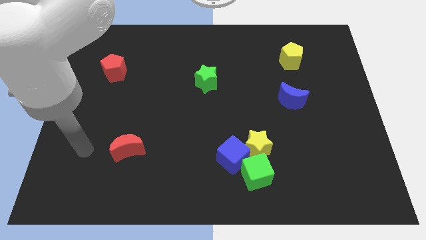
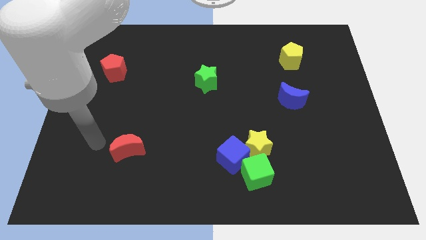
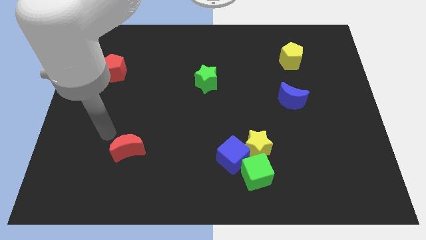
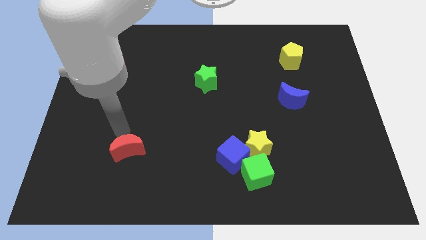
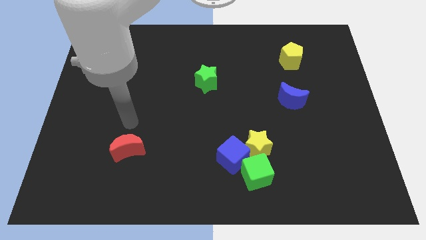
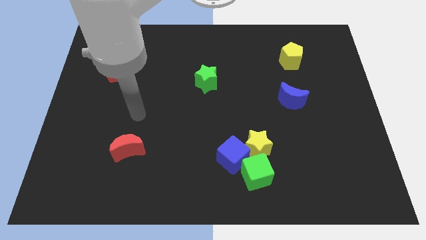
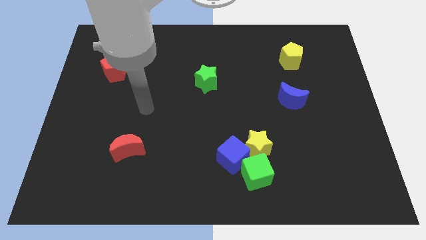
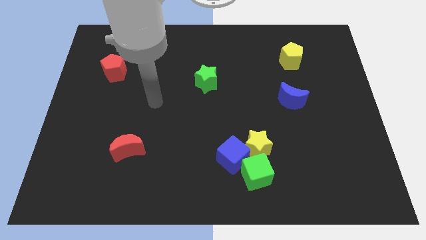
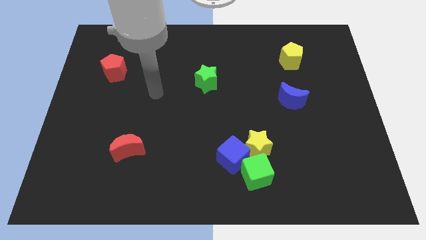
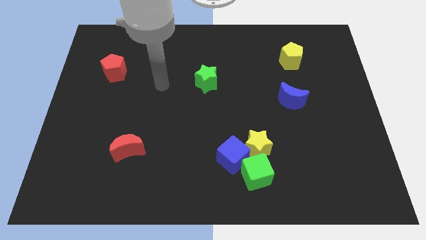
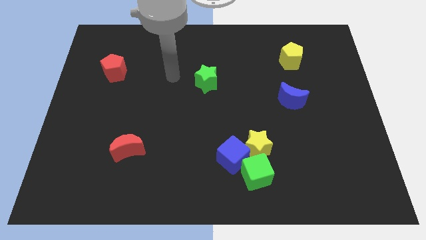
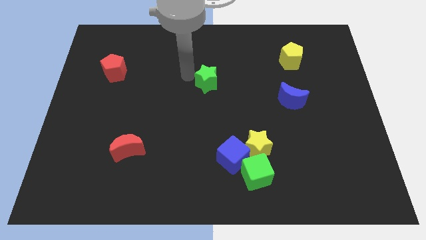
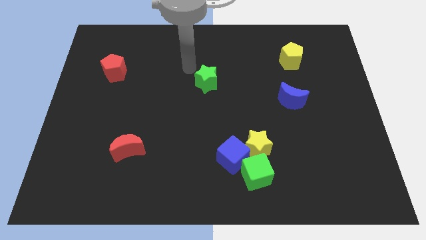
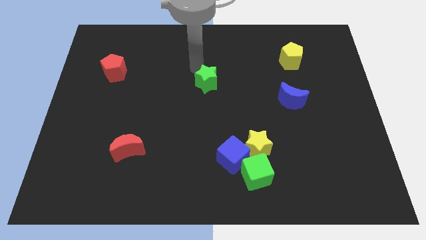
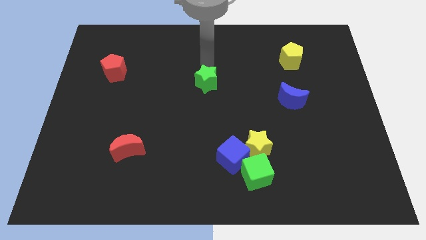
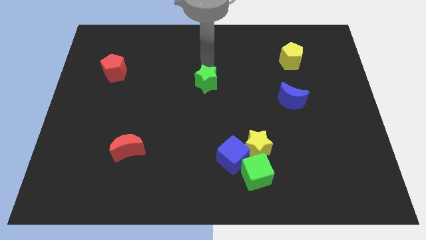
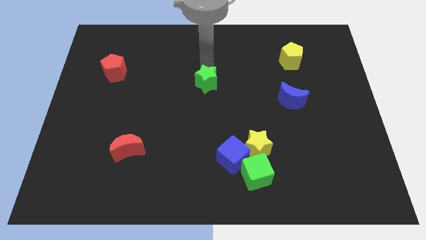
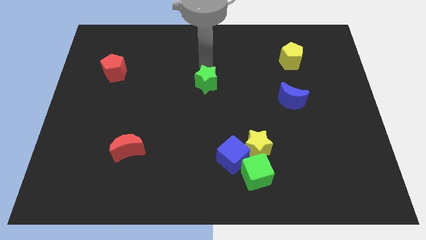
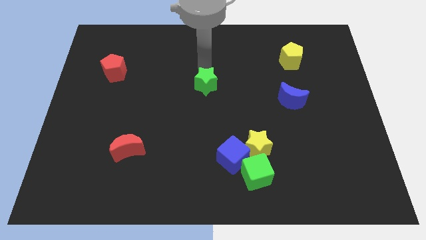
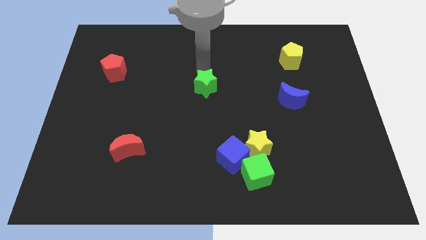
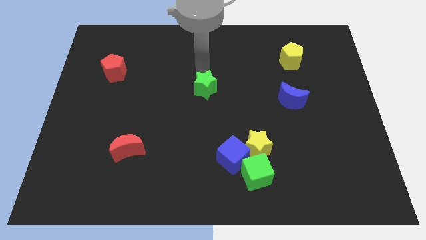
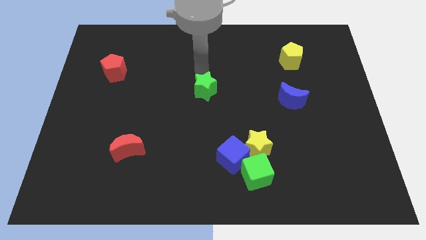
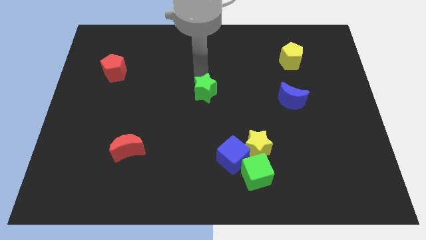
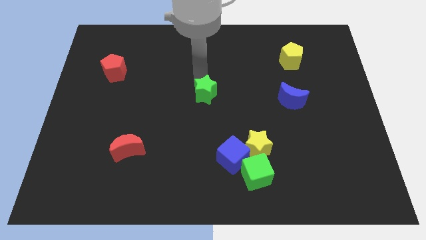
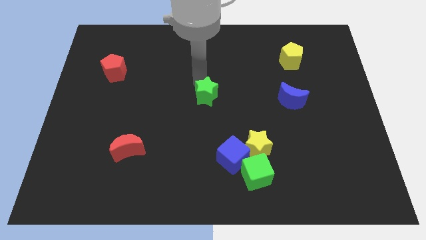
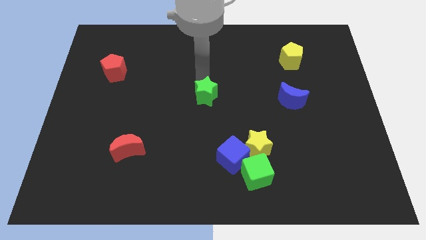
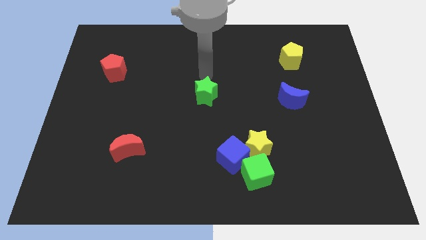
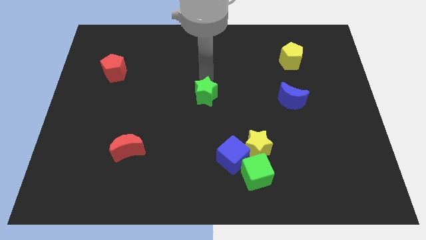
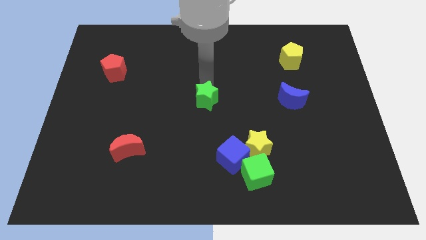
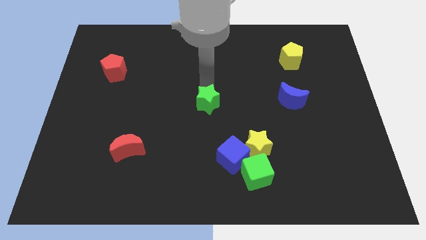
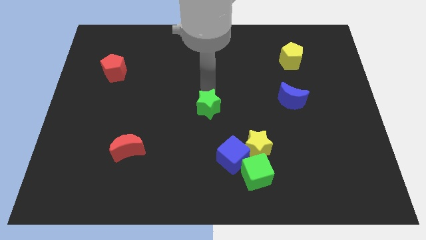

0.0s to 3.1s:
push the green star downwards slightly

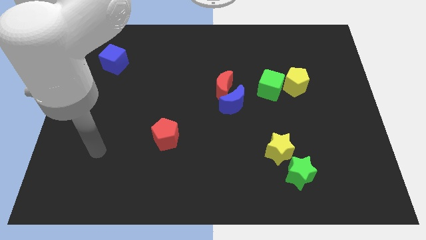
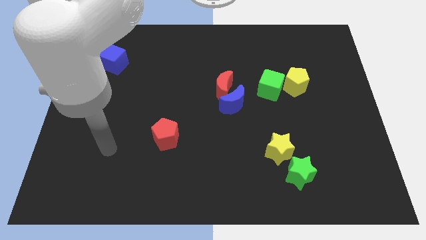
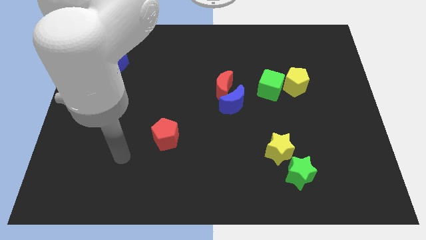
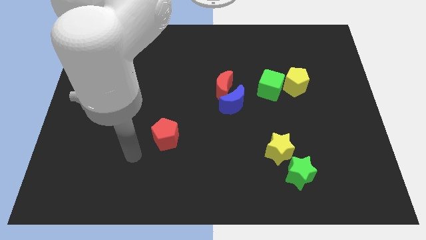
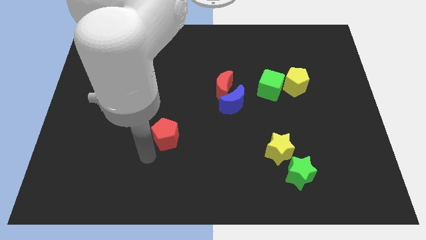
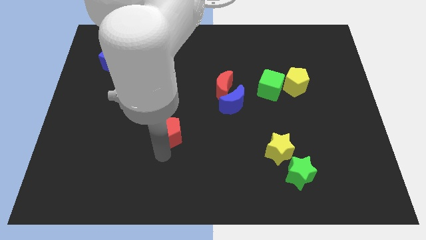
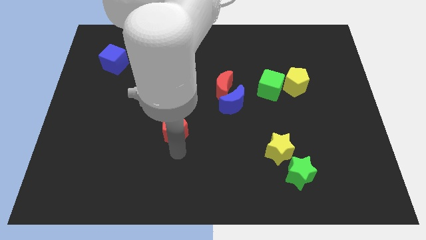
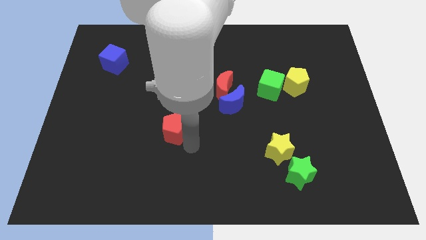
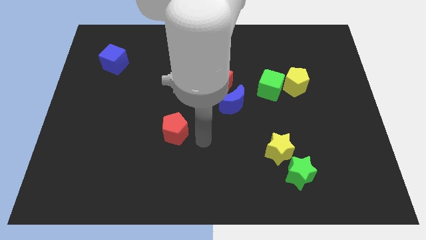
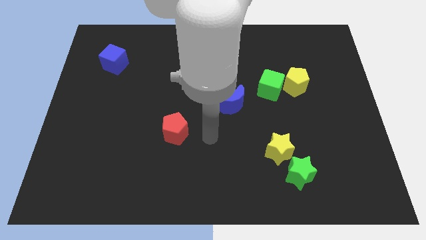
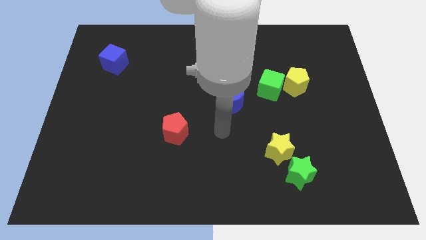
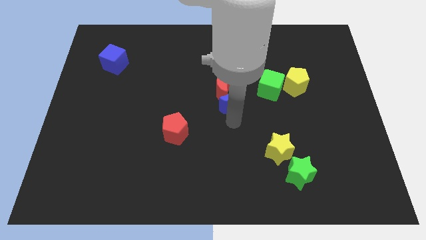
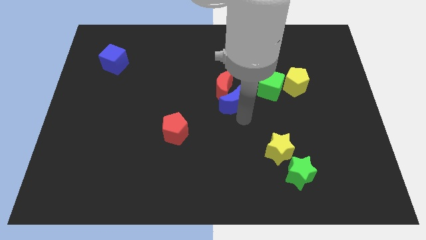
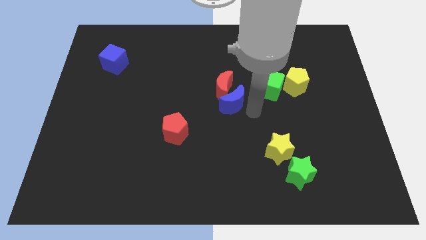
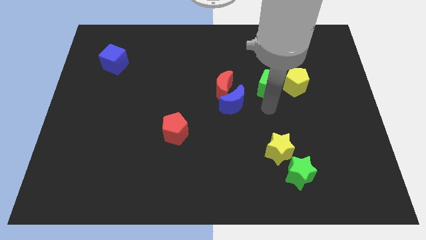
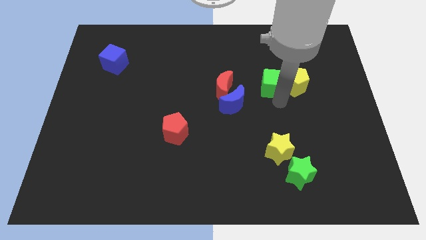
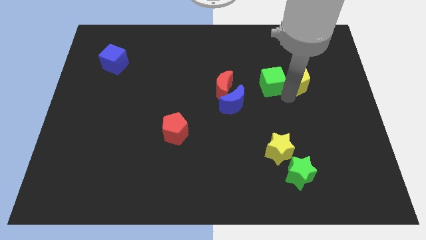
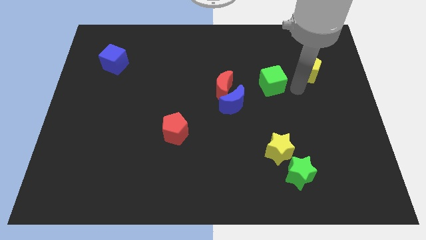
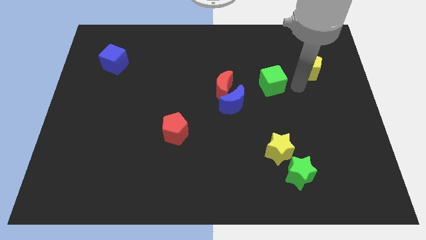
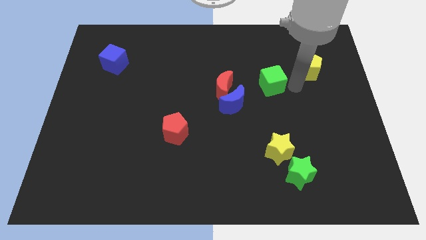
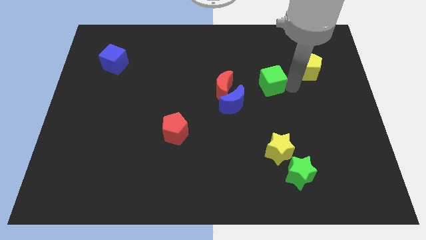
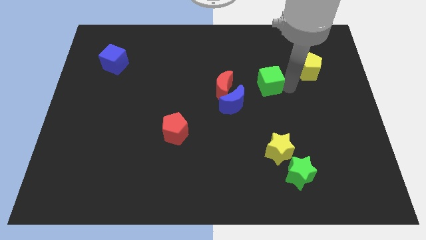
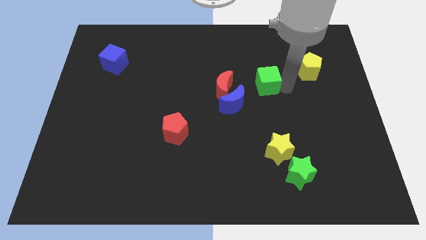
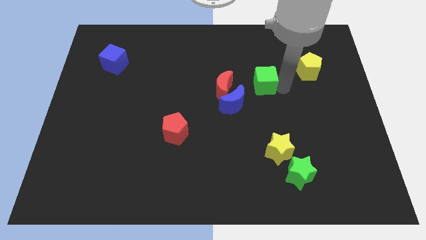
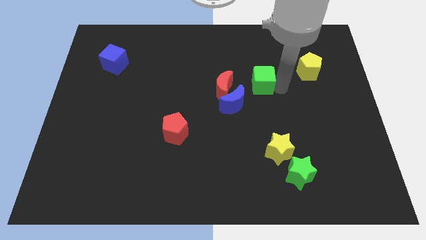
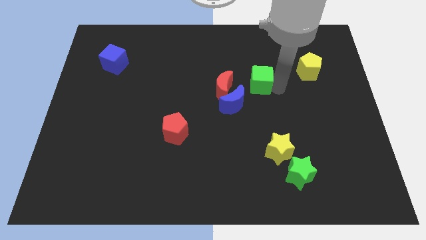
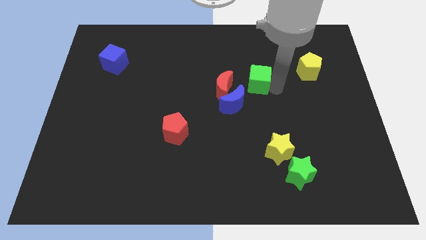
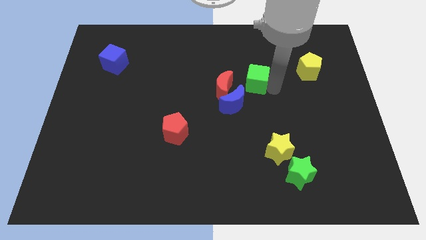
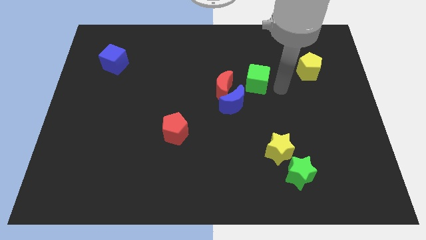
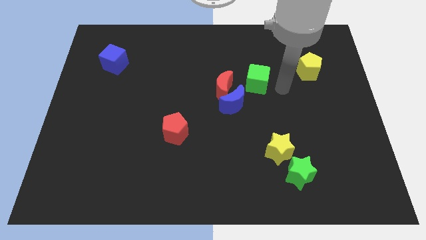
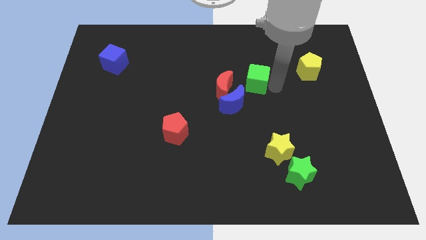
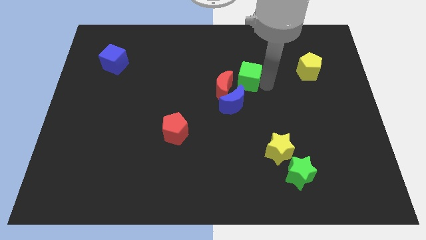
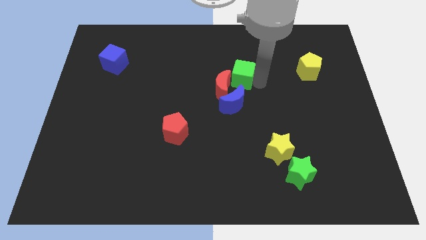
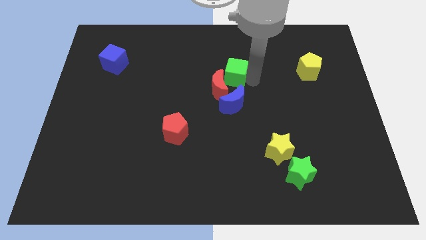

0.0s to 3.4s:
slightly push the green cube left

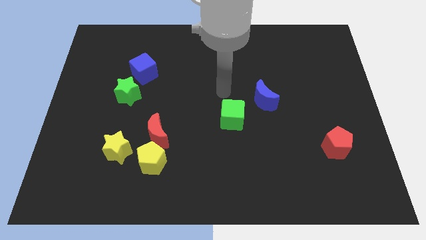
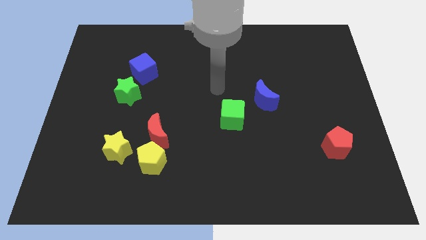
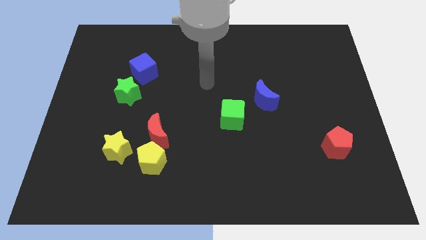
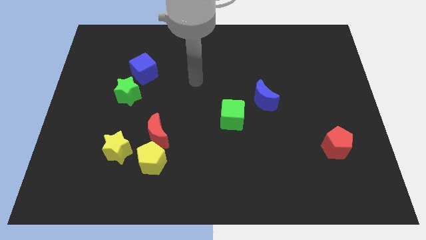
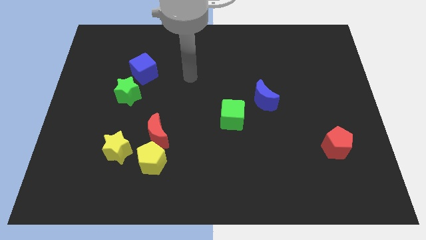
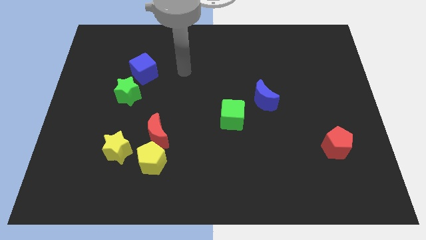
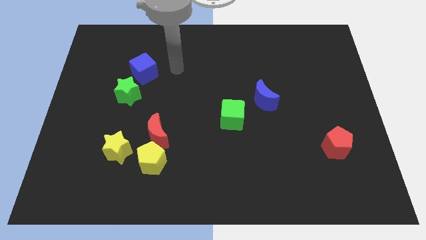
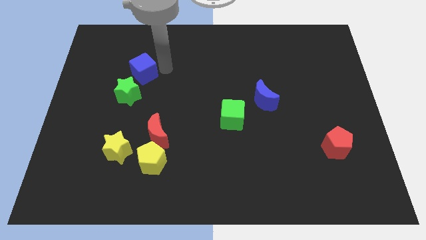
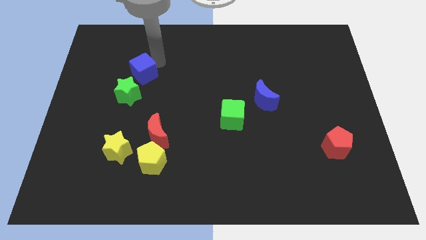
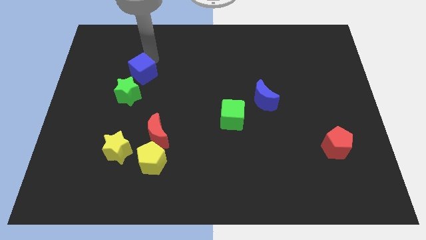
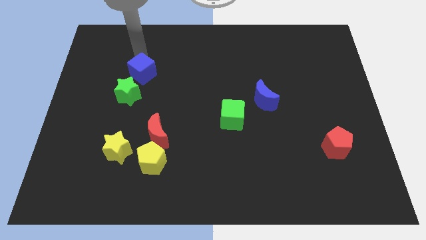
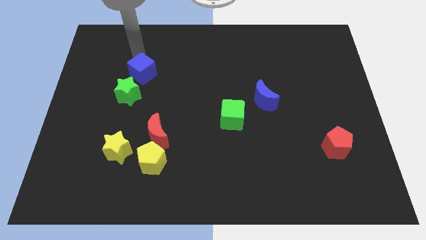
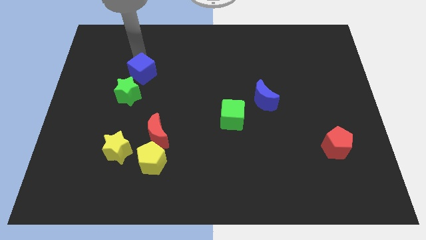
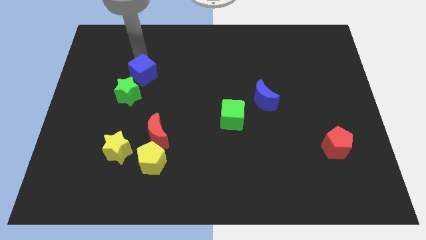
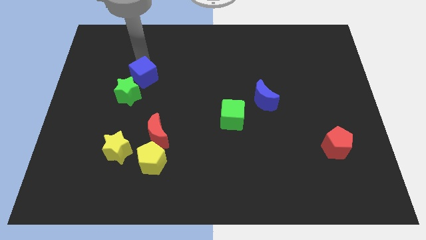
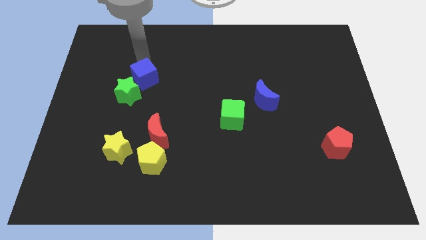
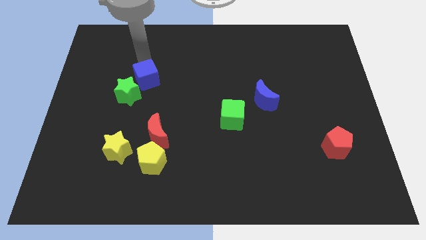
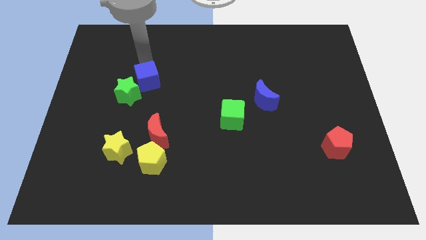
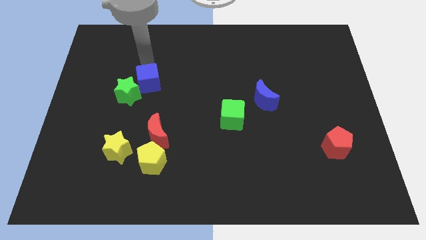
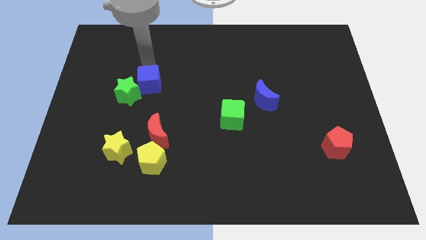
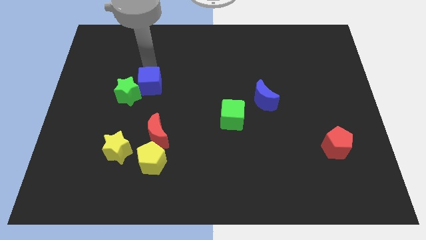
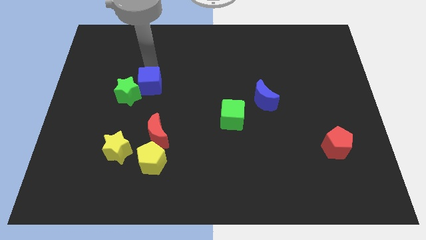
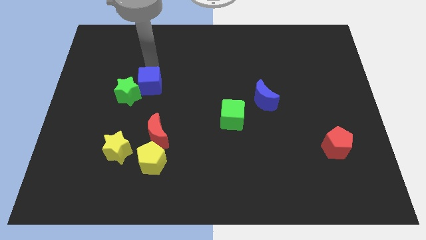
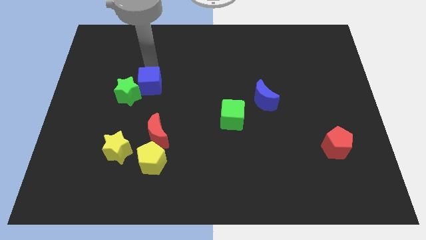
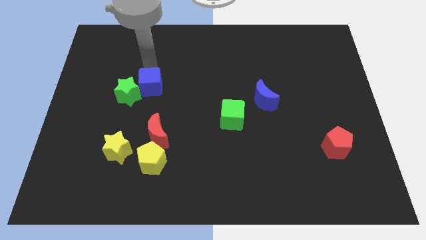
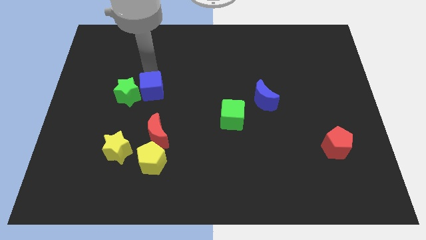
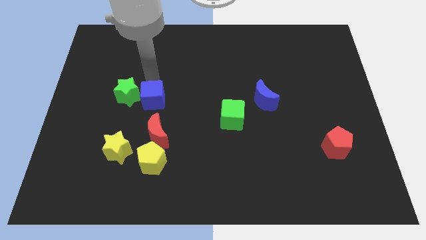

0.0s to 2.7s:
slightly slide the blue cube downwards
